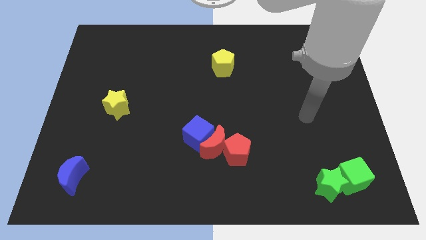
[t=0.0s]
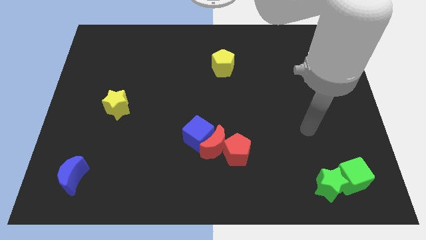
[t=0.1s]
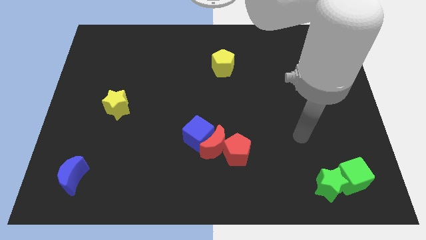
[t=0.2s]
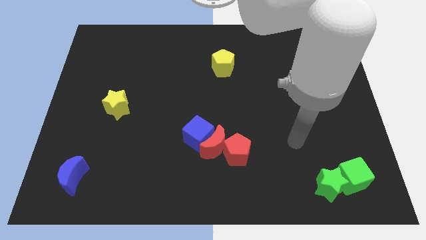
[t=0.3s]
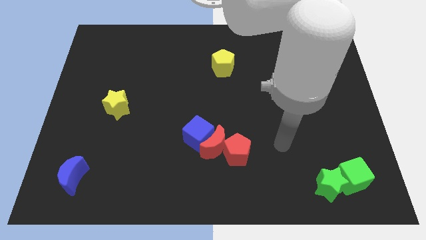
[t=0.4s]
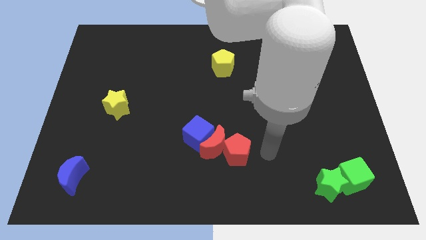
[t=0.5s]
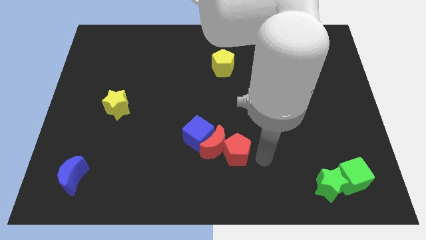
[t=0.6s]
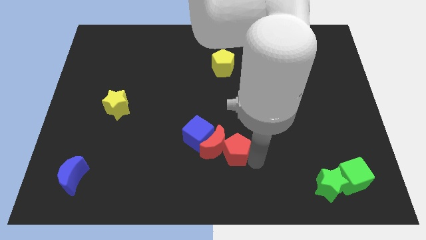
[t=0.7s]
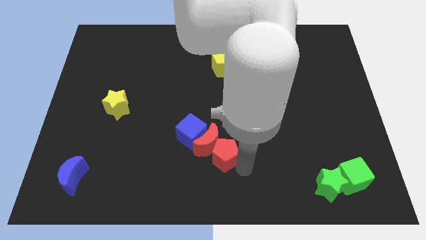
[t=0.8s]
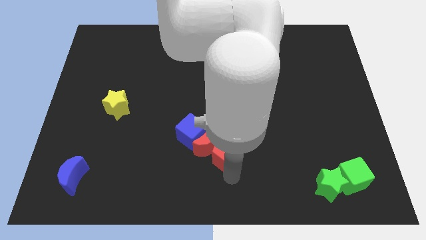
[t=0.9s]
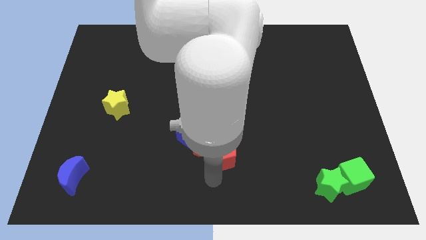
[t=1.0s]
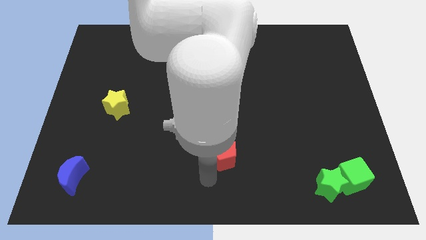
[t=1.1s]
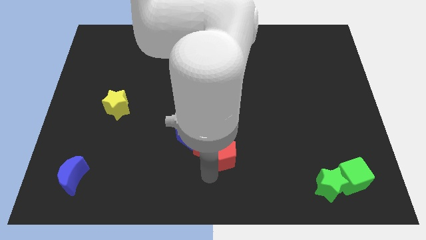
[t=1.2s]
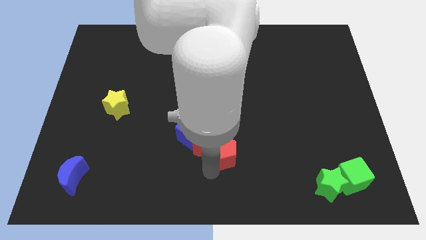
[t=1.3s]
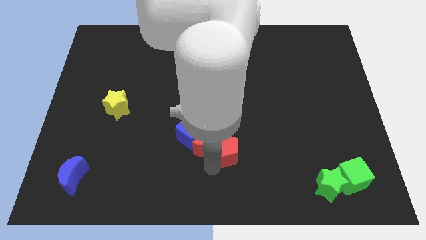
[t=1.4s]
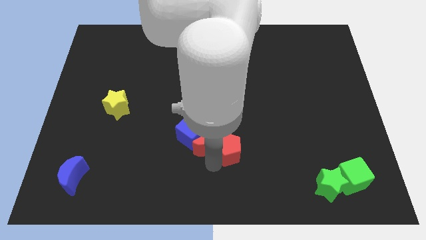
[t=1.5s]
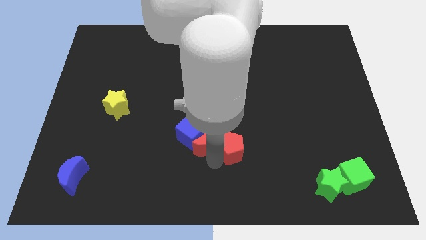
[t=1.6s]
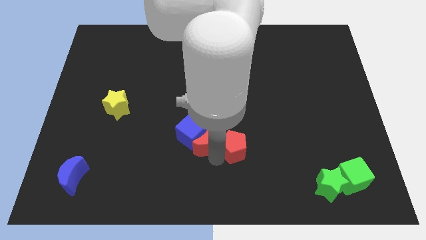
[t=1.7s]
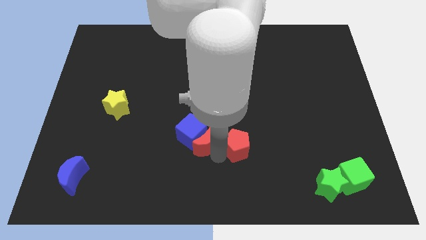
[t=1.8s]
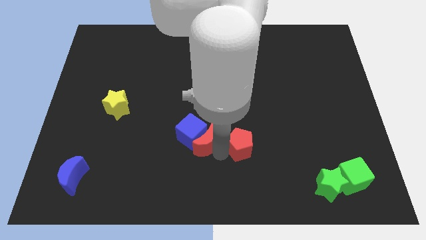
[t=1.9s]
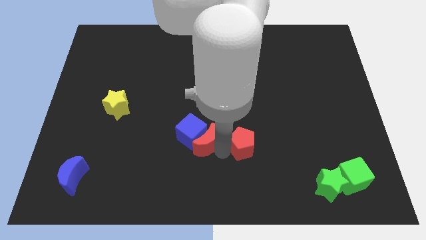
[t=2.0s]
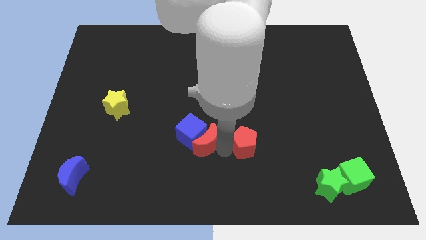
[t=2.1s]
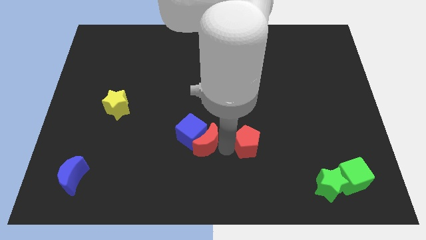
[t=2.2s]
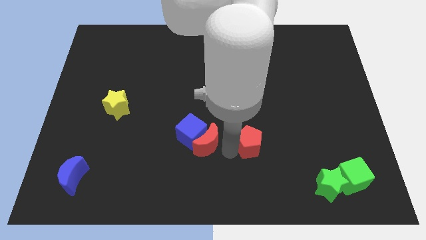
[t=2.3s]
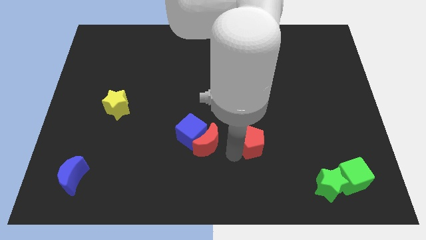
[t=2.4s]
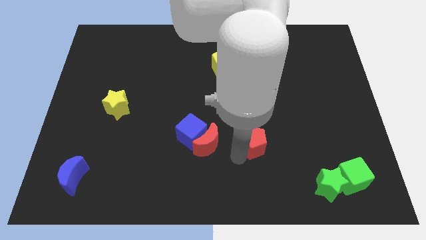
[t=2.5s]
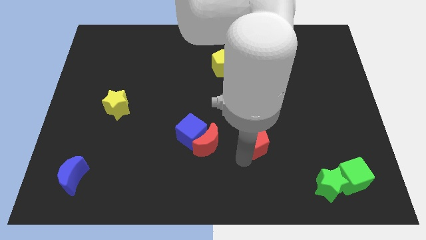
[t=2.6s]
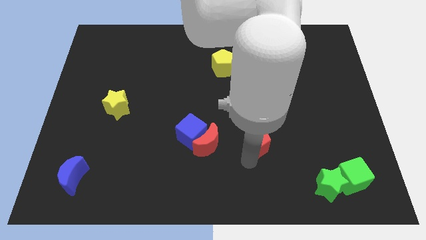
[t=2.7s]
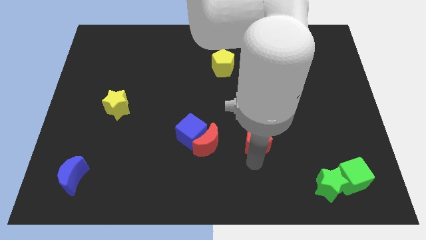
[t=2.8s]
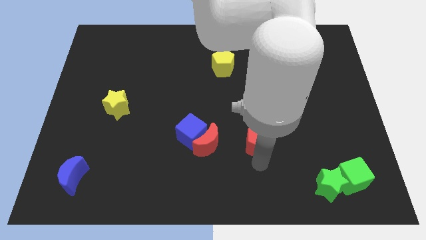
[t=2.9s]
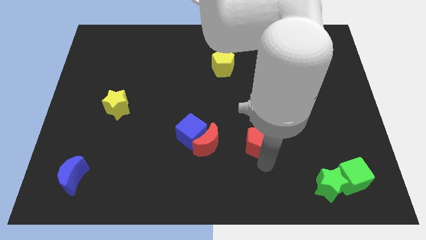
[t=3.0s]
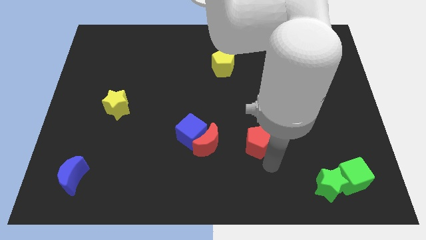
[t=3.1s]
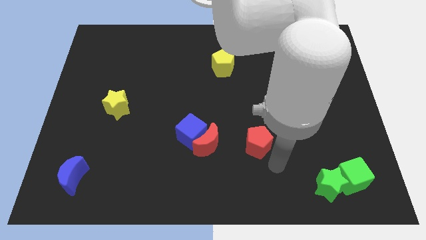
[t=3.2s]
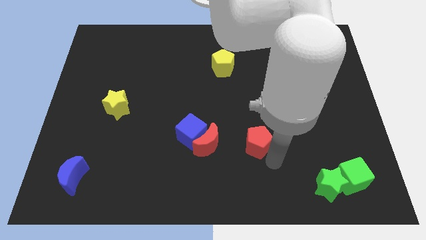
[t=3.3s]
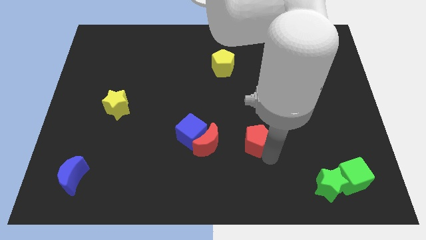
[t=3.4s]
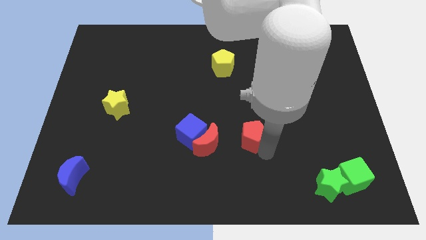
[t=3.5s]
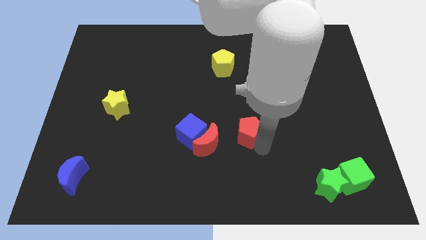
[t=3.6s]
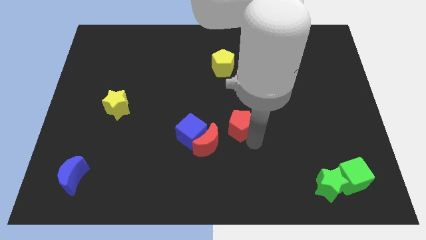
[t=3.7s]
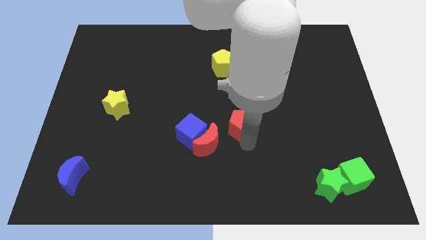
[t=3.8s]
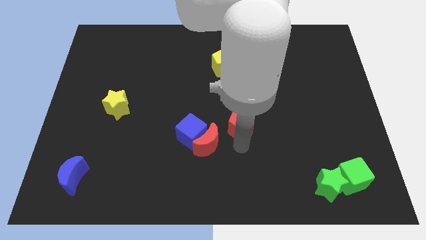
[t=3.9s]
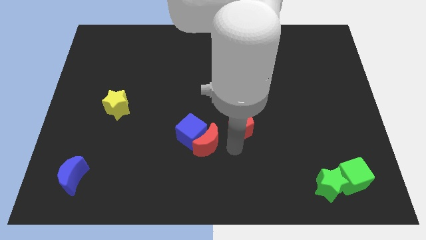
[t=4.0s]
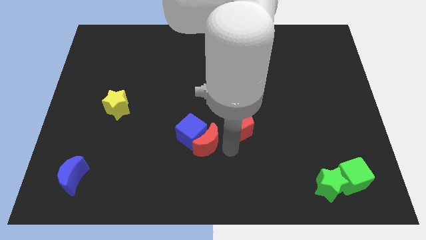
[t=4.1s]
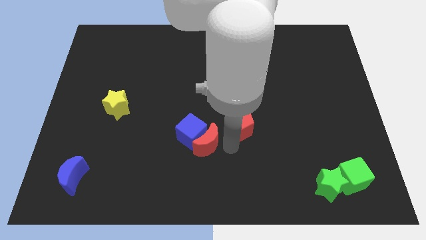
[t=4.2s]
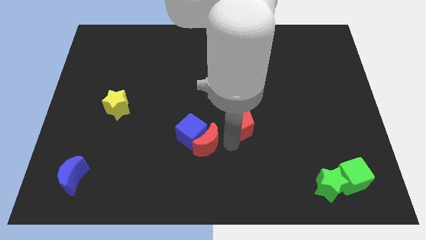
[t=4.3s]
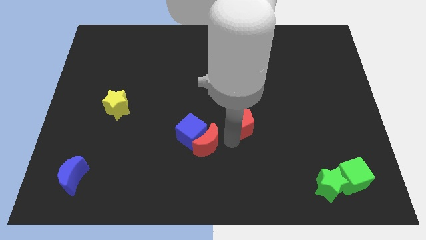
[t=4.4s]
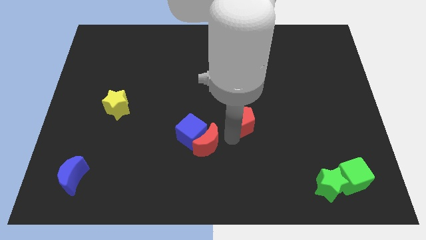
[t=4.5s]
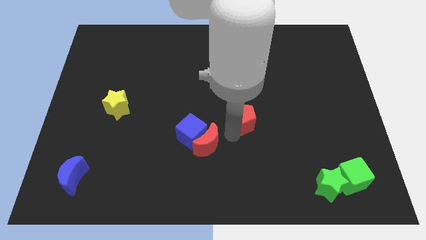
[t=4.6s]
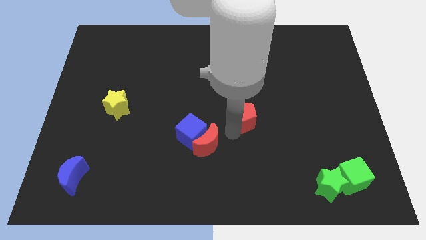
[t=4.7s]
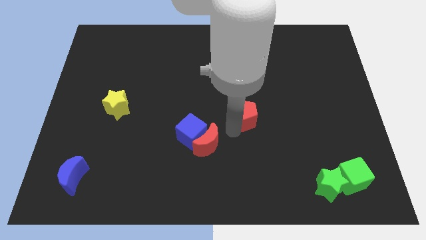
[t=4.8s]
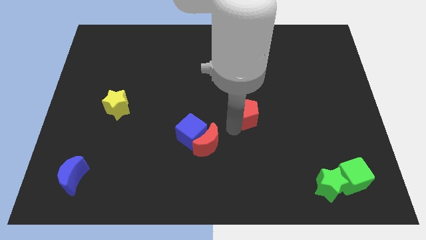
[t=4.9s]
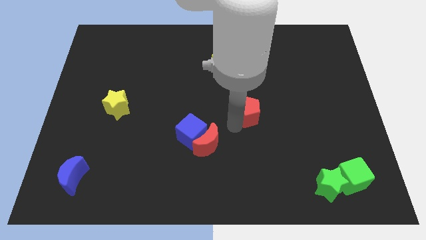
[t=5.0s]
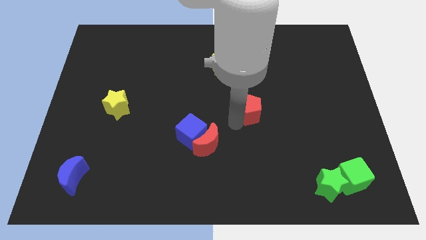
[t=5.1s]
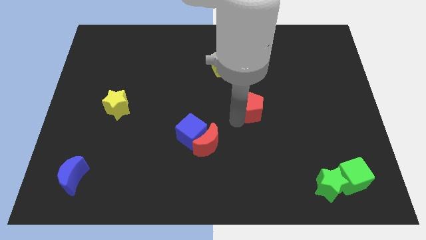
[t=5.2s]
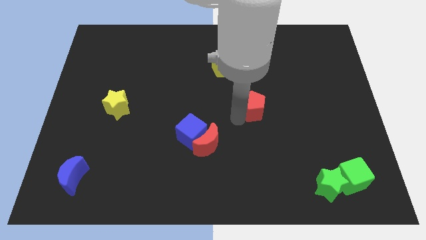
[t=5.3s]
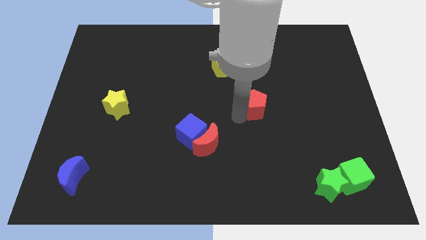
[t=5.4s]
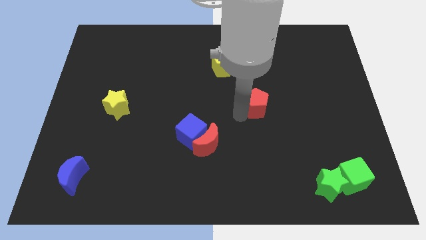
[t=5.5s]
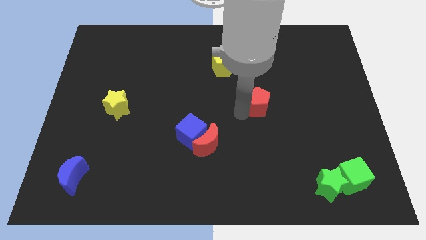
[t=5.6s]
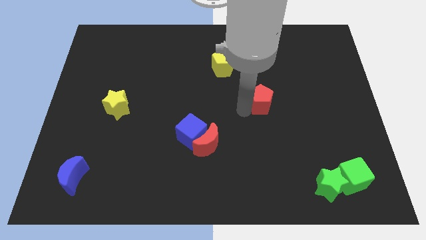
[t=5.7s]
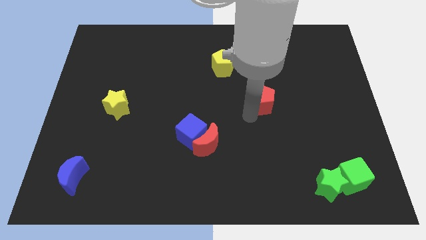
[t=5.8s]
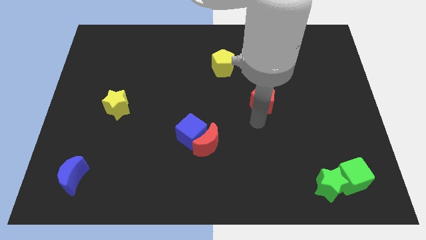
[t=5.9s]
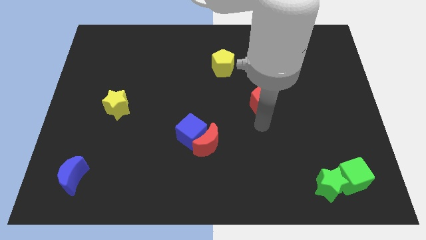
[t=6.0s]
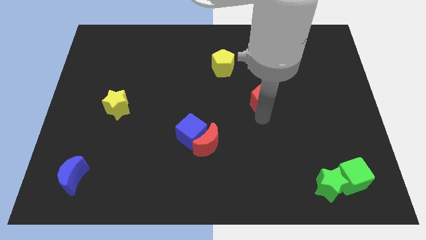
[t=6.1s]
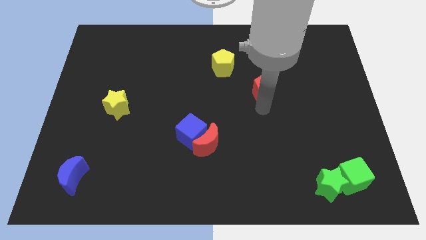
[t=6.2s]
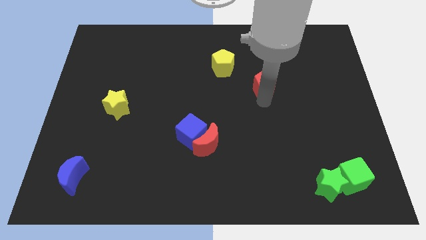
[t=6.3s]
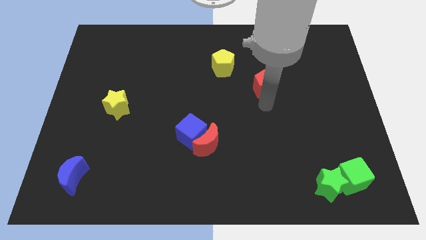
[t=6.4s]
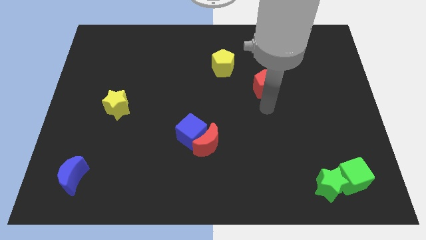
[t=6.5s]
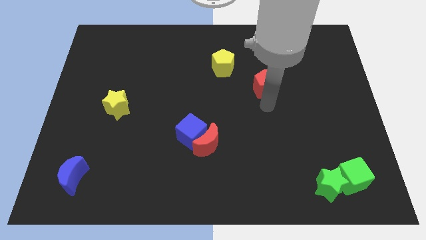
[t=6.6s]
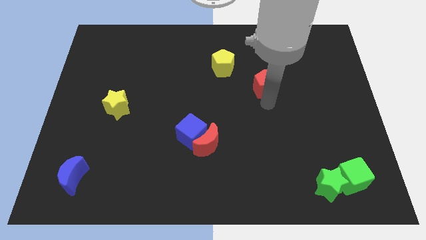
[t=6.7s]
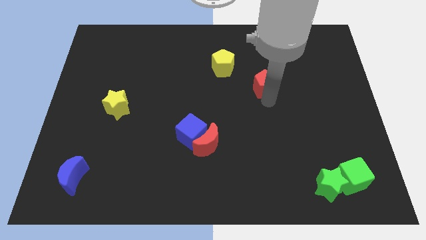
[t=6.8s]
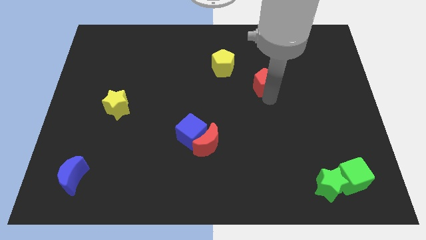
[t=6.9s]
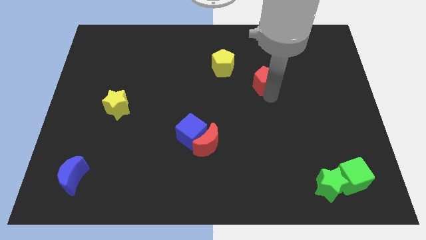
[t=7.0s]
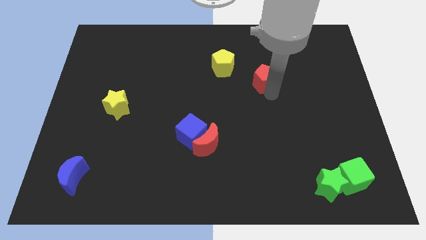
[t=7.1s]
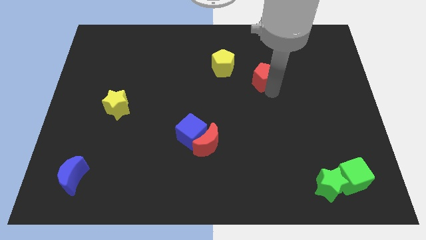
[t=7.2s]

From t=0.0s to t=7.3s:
move the red pentagon right of the yellow pentagon
